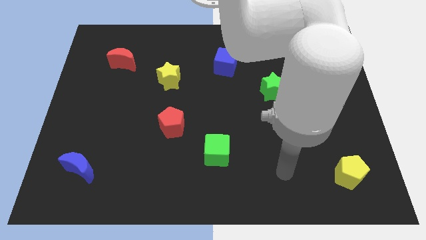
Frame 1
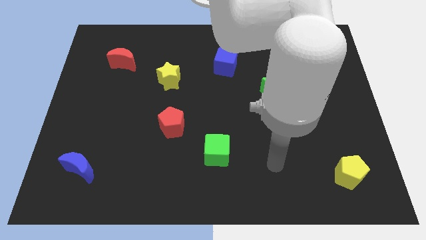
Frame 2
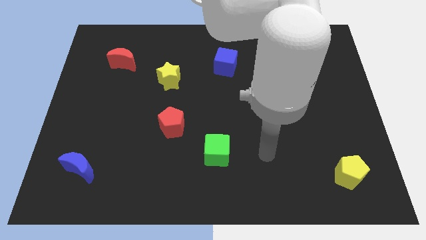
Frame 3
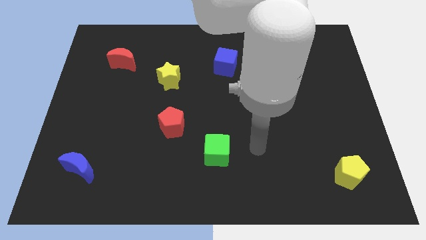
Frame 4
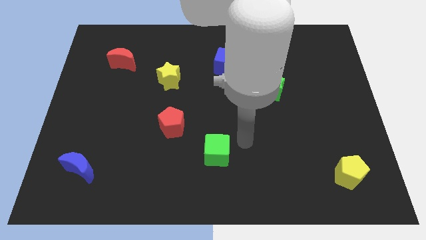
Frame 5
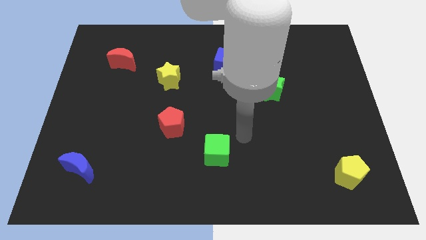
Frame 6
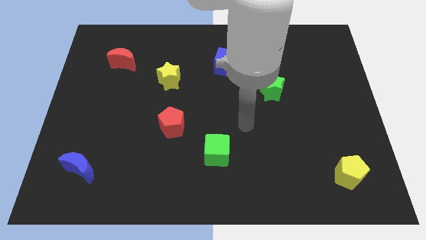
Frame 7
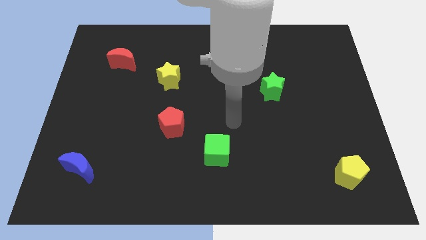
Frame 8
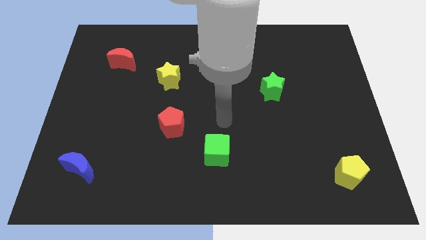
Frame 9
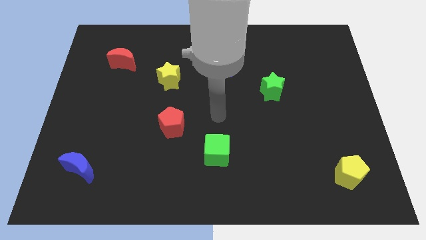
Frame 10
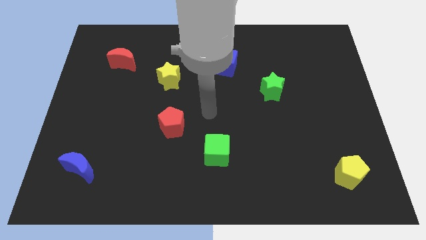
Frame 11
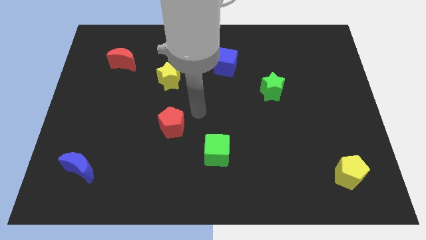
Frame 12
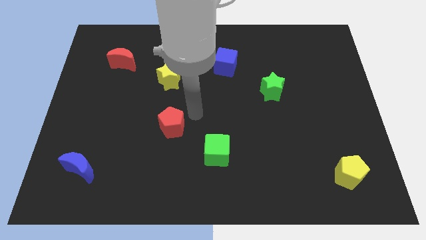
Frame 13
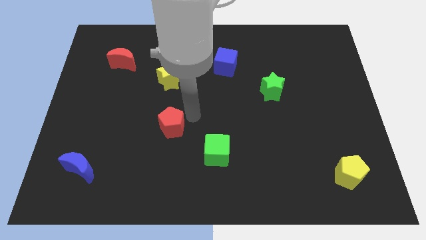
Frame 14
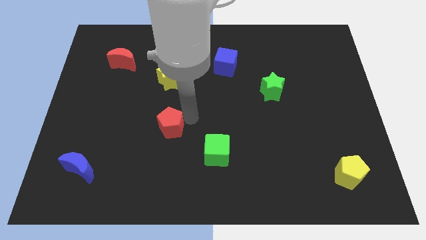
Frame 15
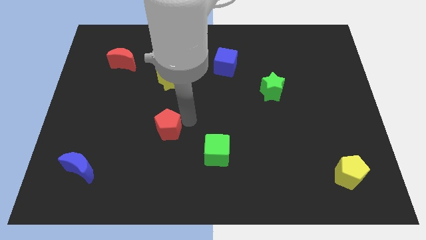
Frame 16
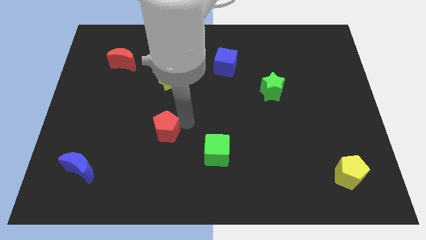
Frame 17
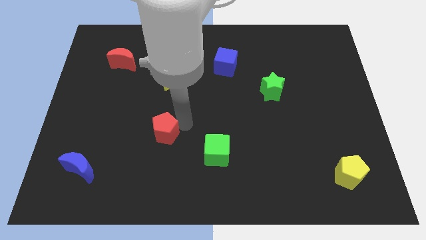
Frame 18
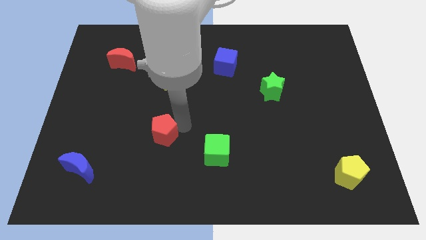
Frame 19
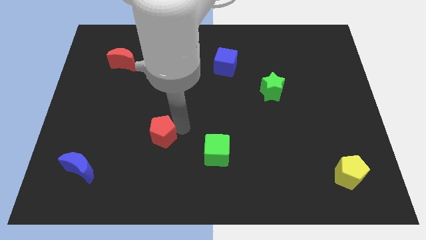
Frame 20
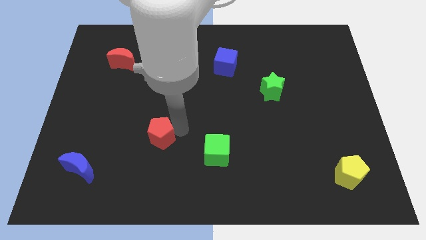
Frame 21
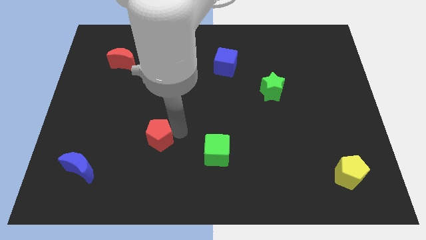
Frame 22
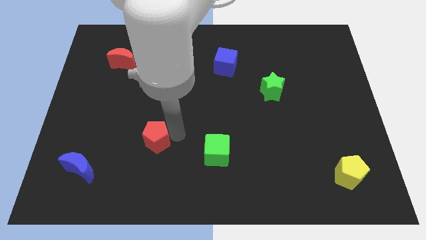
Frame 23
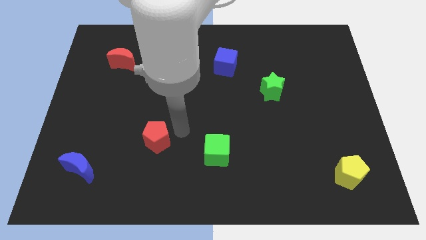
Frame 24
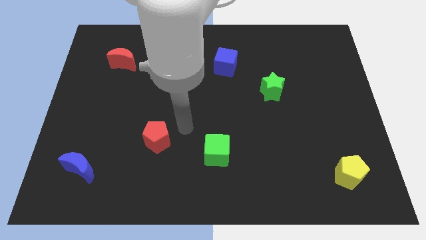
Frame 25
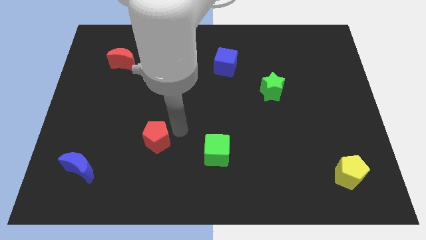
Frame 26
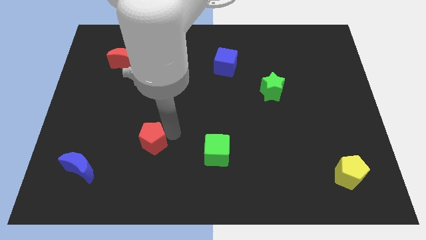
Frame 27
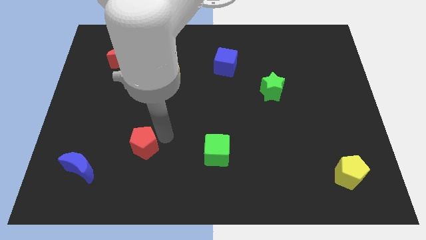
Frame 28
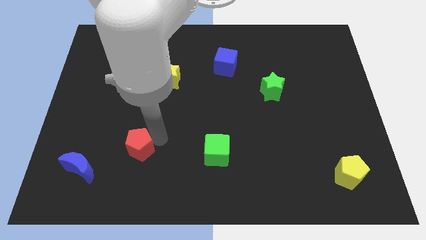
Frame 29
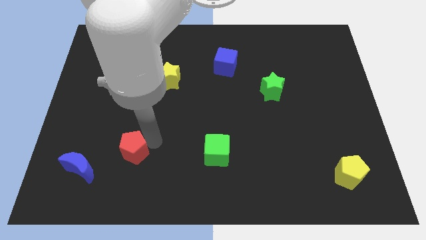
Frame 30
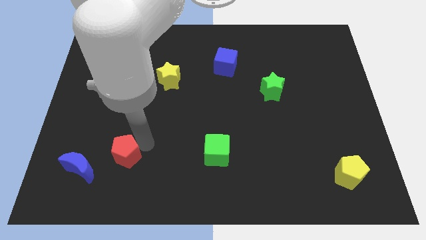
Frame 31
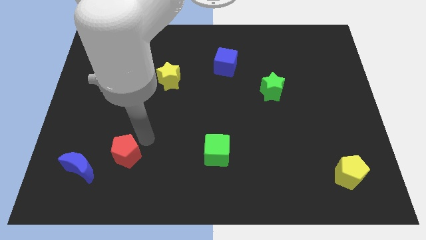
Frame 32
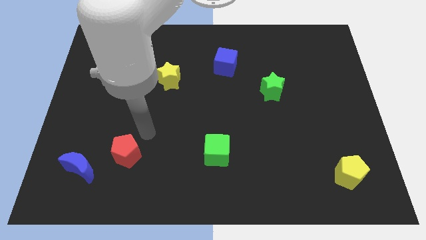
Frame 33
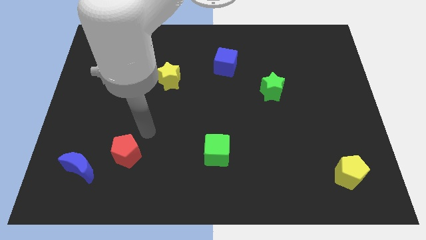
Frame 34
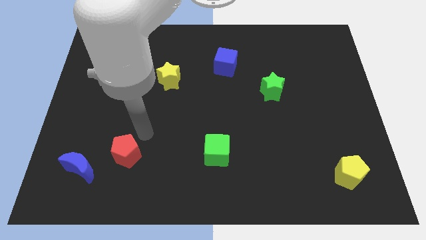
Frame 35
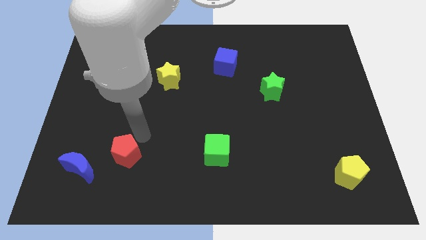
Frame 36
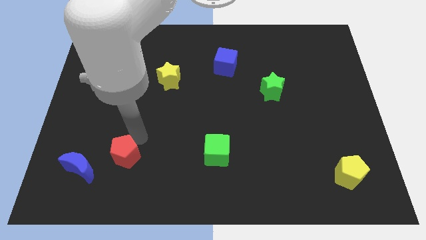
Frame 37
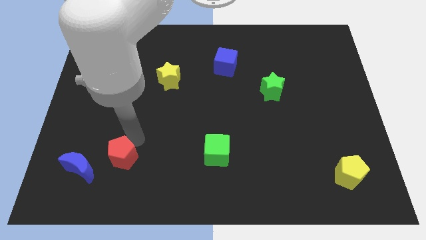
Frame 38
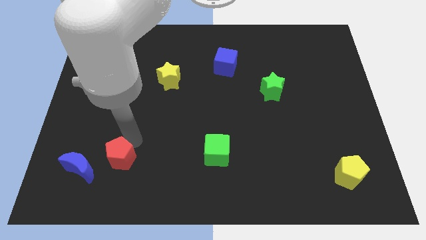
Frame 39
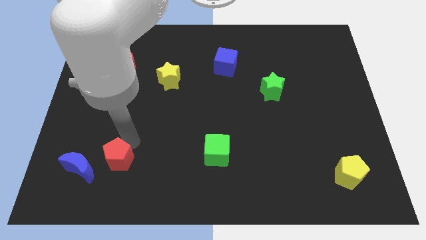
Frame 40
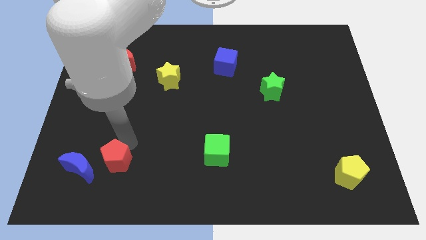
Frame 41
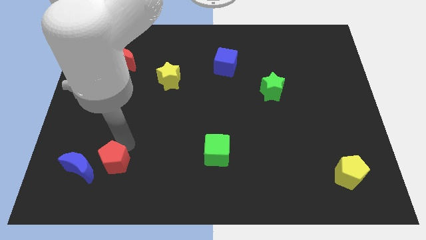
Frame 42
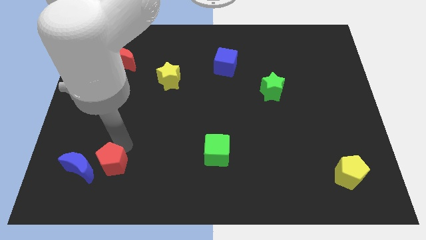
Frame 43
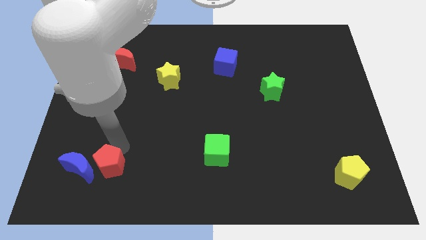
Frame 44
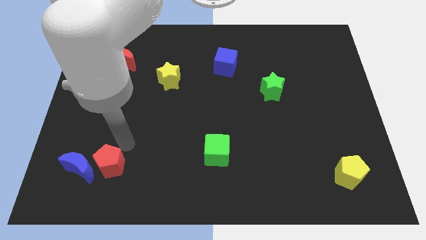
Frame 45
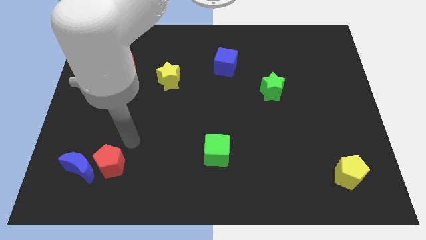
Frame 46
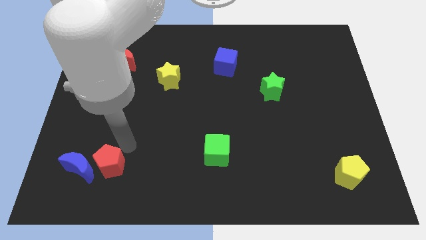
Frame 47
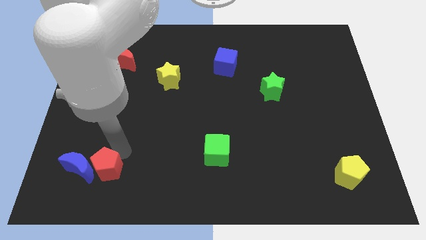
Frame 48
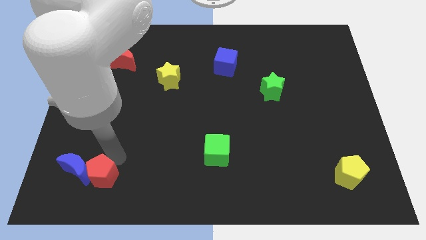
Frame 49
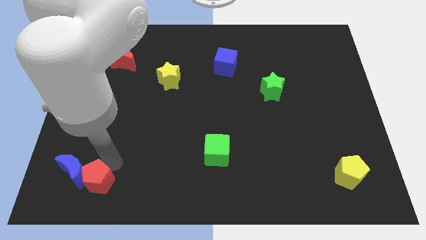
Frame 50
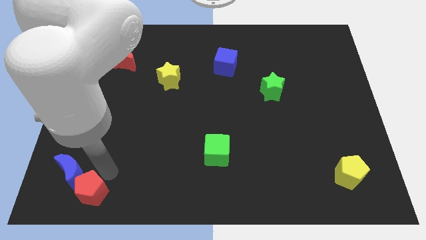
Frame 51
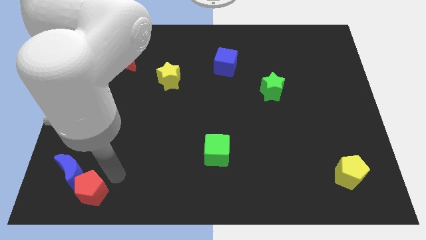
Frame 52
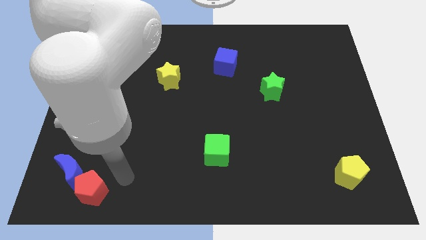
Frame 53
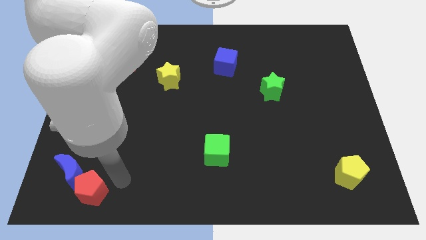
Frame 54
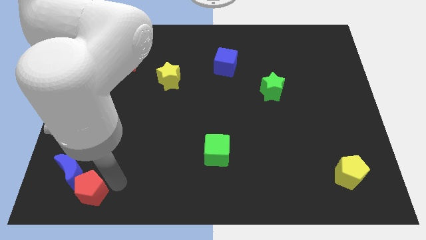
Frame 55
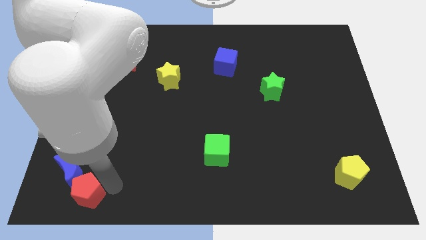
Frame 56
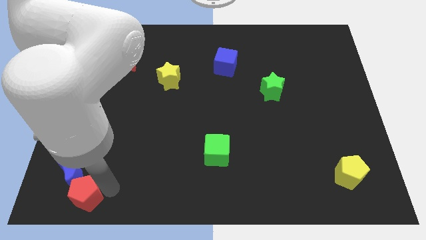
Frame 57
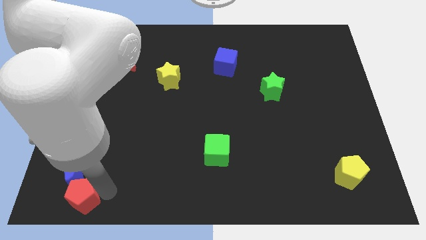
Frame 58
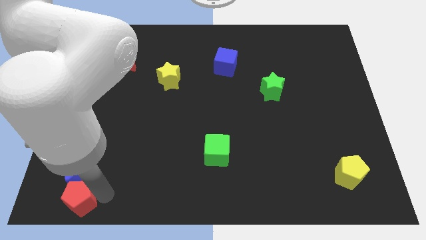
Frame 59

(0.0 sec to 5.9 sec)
push the red pentagon to the bottom left corner
